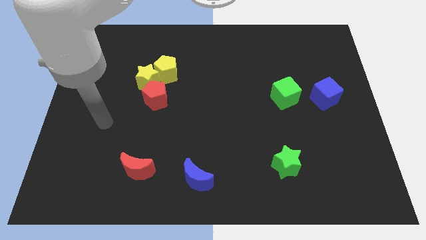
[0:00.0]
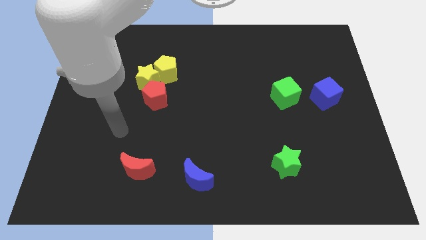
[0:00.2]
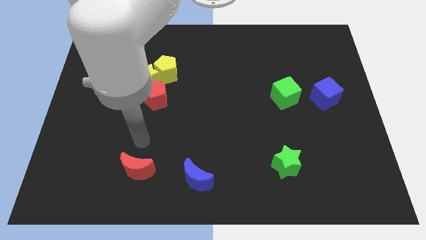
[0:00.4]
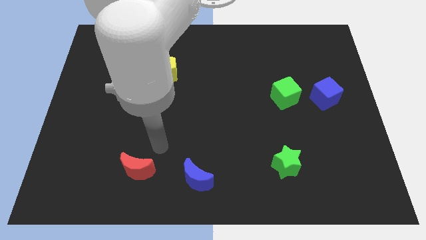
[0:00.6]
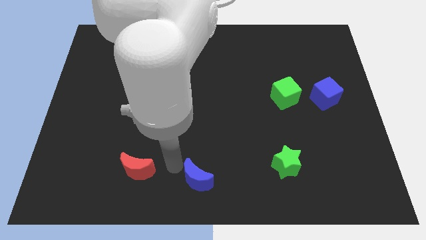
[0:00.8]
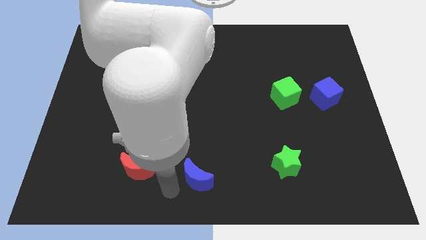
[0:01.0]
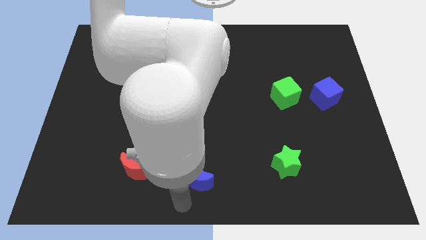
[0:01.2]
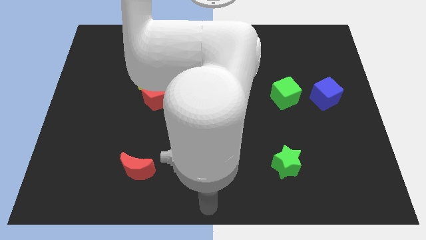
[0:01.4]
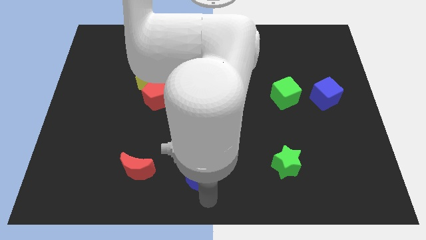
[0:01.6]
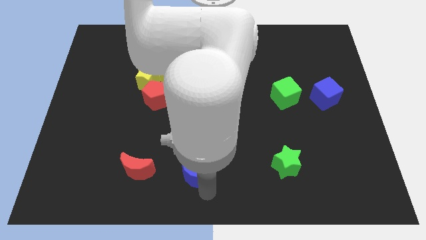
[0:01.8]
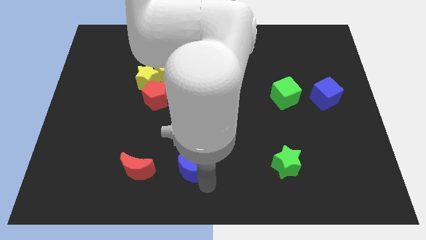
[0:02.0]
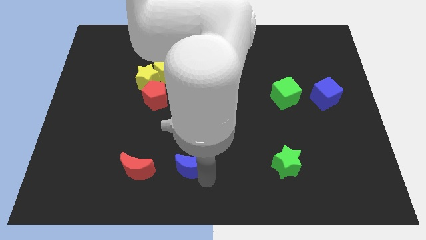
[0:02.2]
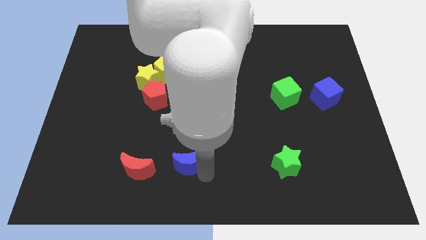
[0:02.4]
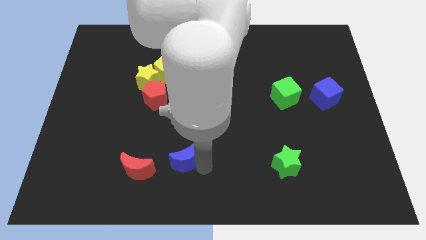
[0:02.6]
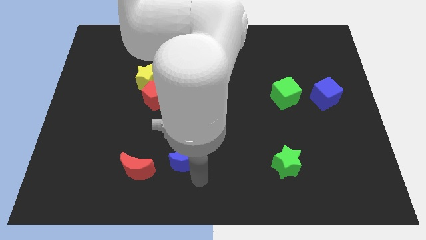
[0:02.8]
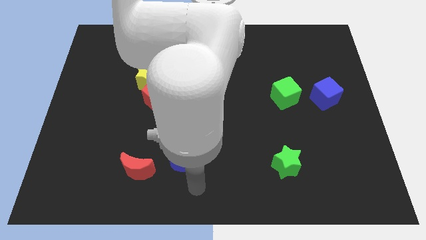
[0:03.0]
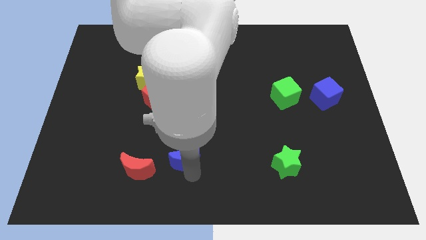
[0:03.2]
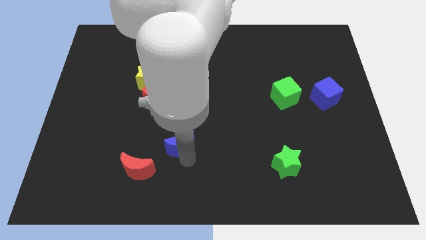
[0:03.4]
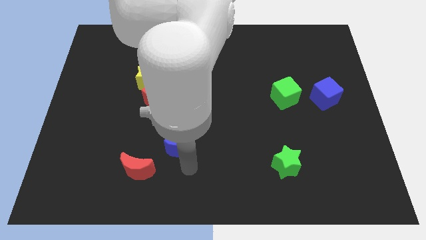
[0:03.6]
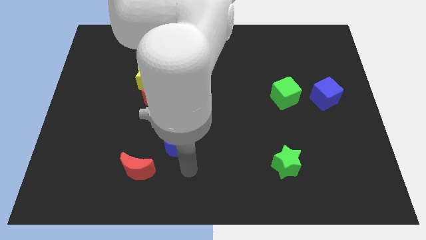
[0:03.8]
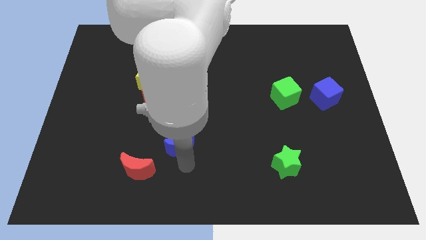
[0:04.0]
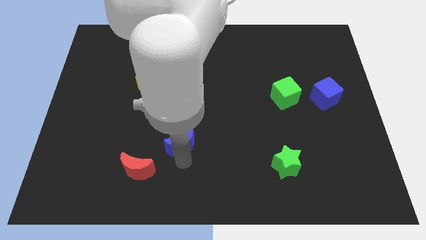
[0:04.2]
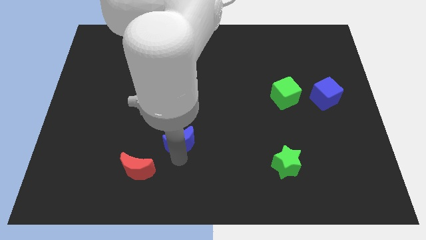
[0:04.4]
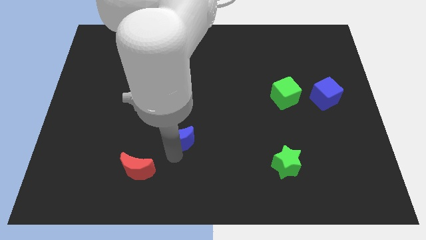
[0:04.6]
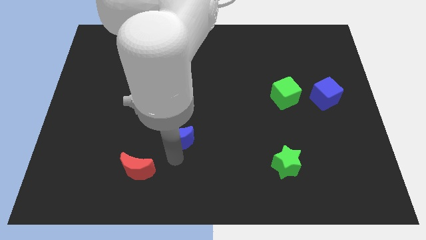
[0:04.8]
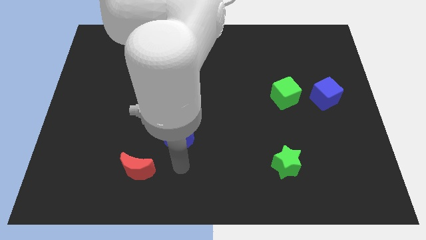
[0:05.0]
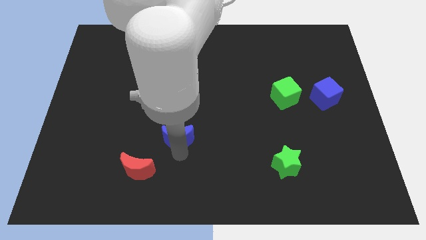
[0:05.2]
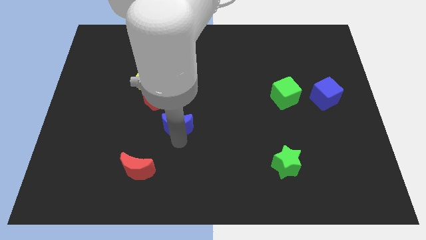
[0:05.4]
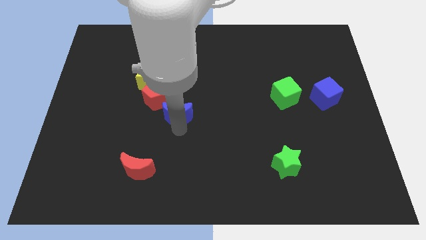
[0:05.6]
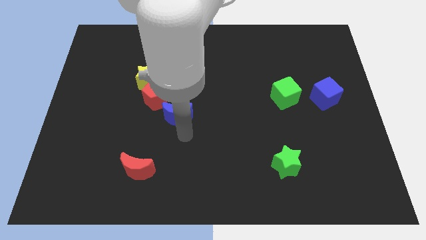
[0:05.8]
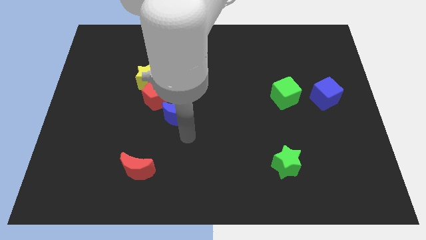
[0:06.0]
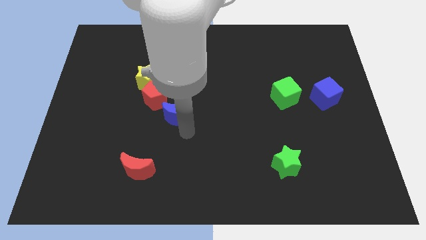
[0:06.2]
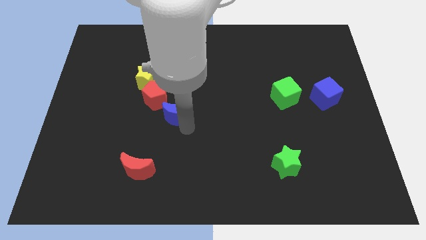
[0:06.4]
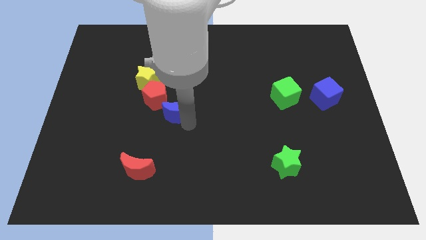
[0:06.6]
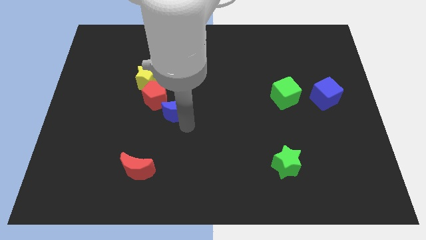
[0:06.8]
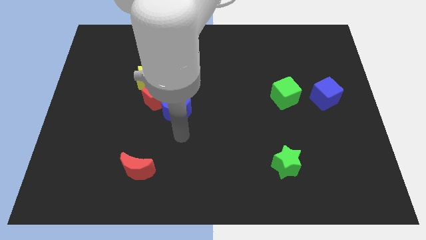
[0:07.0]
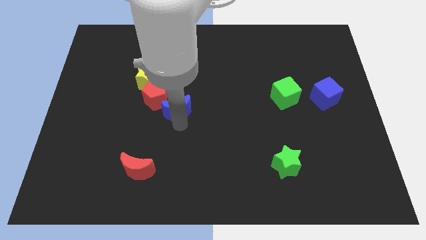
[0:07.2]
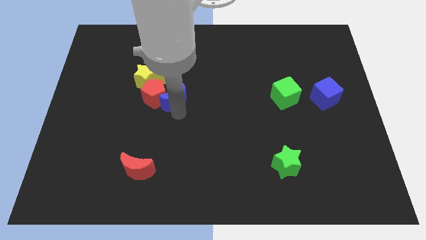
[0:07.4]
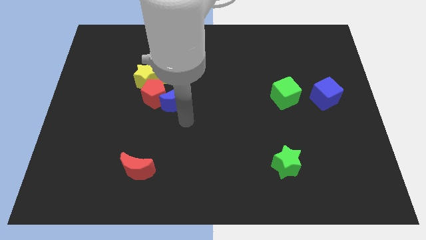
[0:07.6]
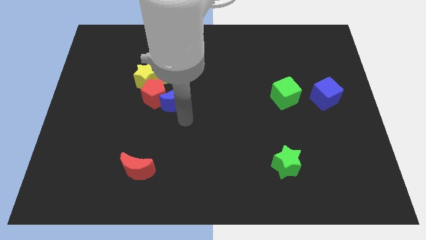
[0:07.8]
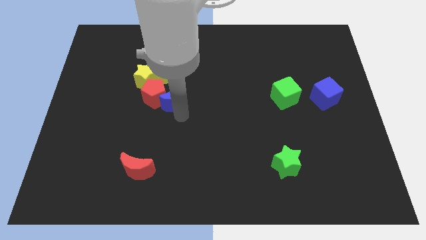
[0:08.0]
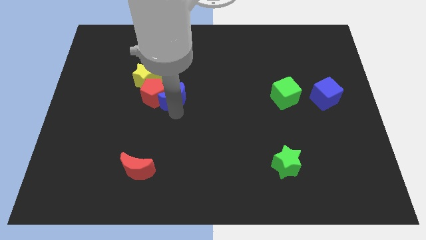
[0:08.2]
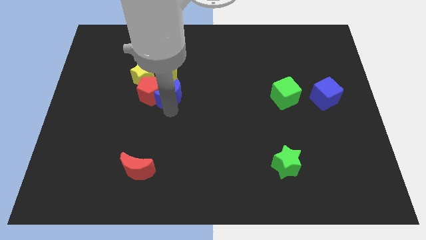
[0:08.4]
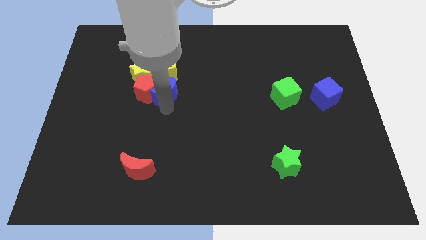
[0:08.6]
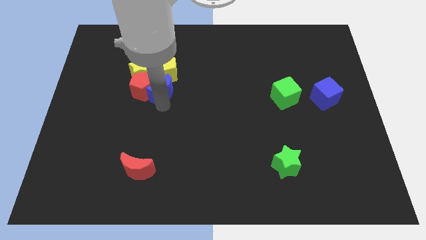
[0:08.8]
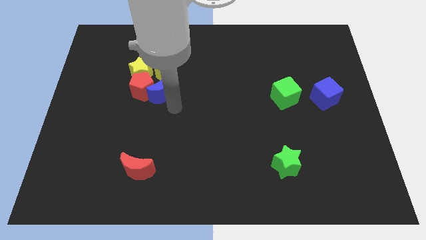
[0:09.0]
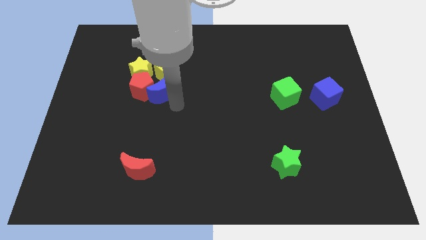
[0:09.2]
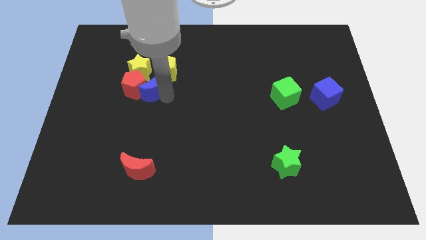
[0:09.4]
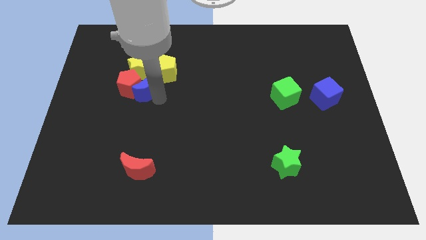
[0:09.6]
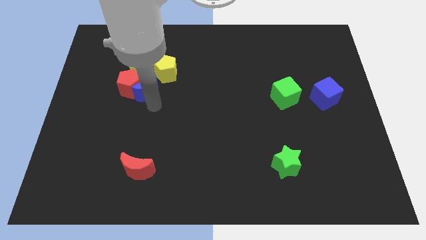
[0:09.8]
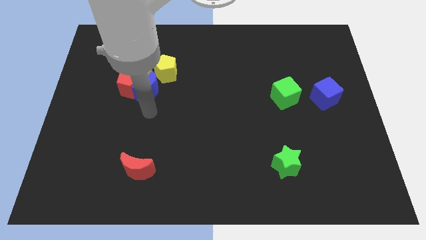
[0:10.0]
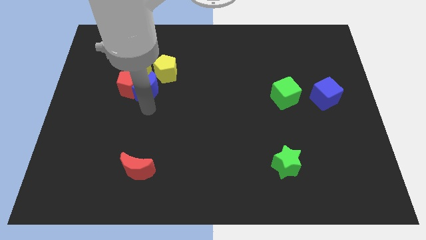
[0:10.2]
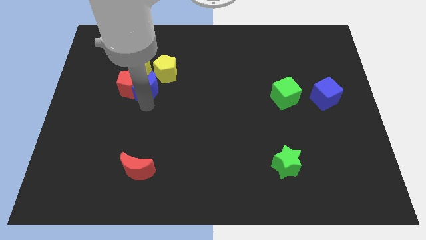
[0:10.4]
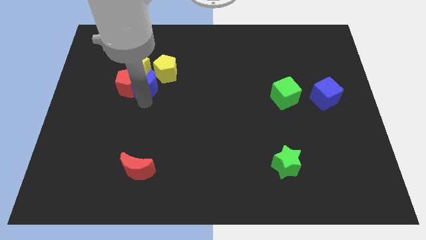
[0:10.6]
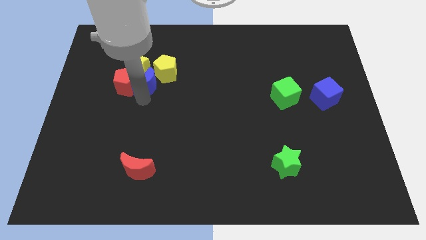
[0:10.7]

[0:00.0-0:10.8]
push the blue moon towards the yellow star
